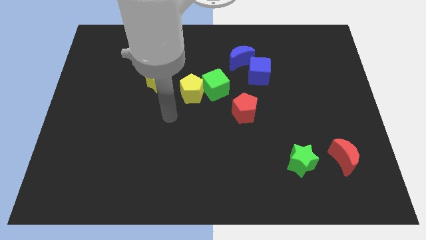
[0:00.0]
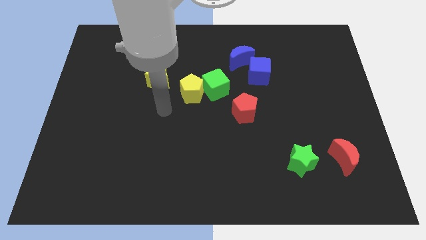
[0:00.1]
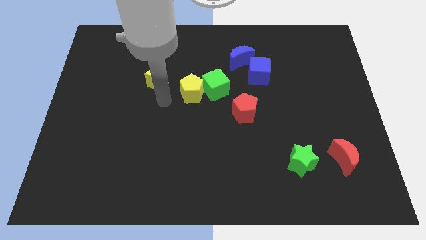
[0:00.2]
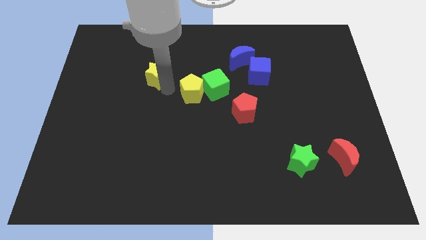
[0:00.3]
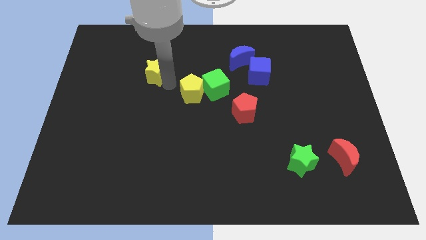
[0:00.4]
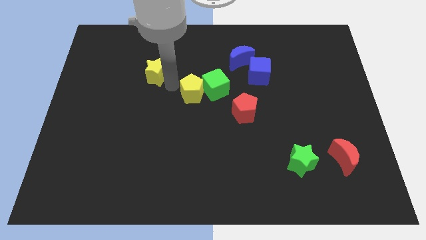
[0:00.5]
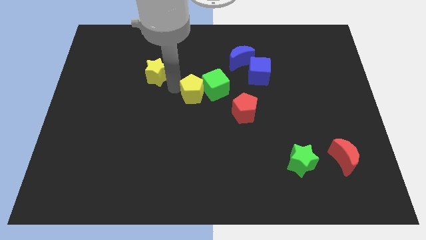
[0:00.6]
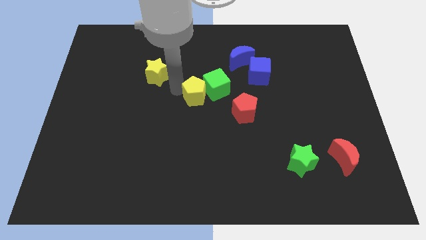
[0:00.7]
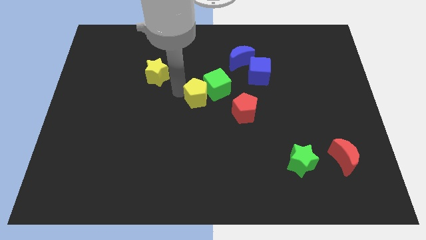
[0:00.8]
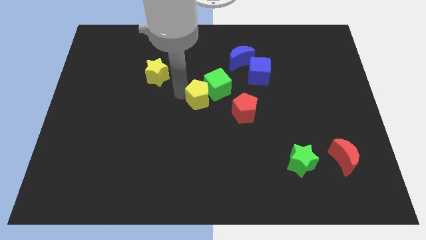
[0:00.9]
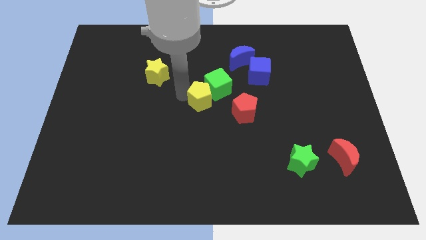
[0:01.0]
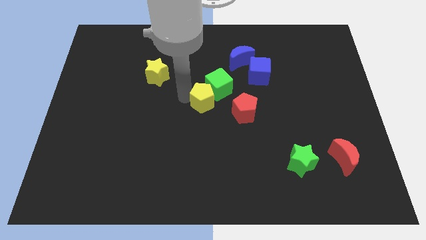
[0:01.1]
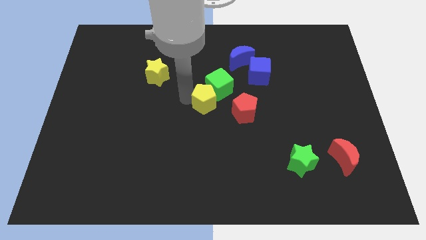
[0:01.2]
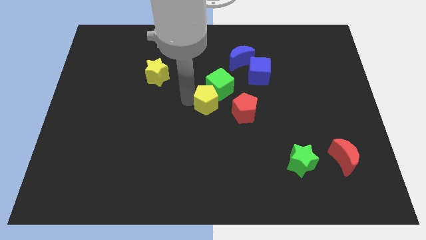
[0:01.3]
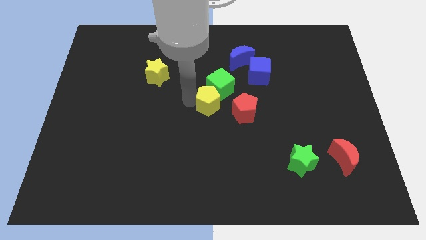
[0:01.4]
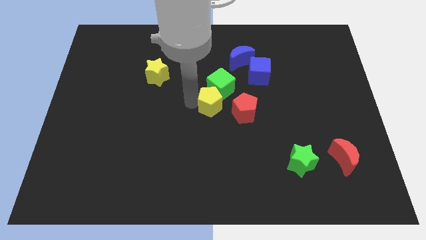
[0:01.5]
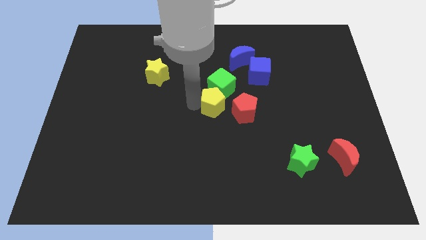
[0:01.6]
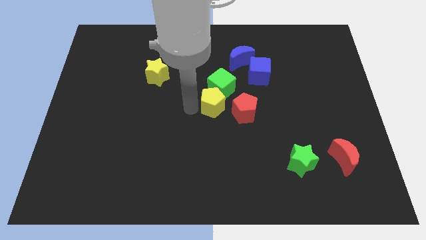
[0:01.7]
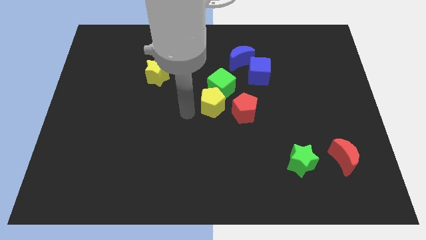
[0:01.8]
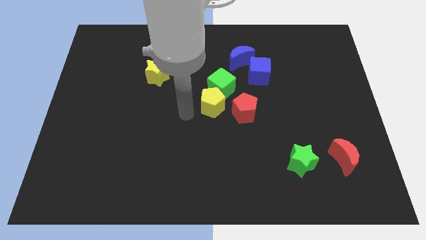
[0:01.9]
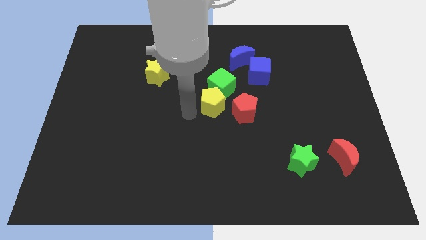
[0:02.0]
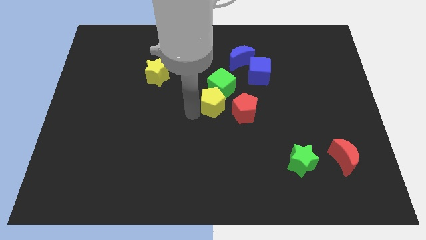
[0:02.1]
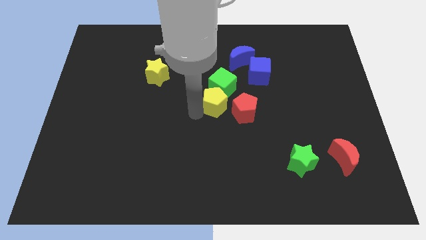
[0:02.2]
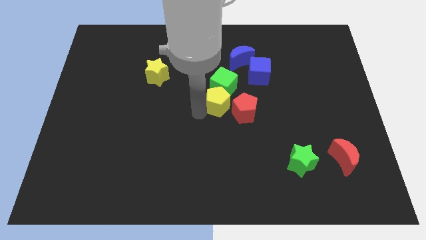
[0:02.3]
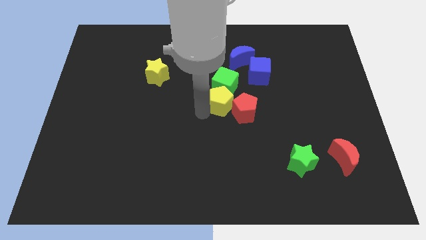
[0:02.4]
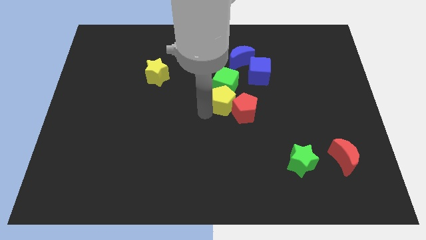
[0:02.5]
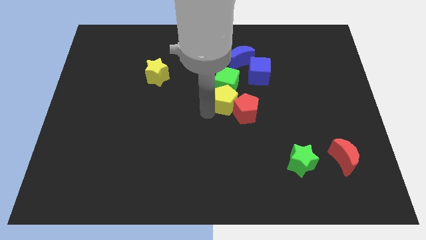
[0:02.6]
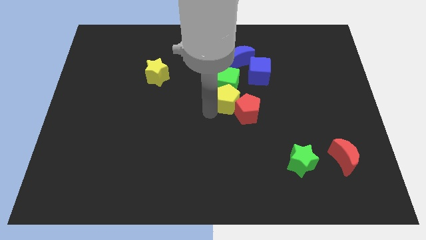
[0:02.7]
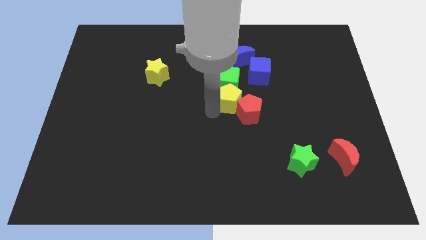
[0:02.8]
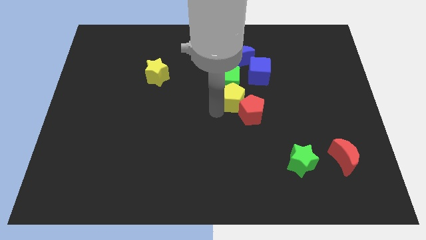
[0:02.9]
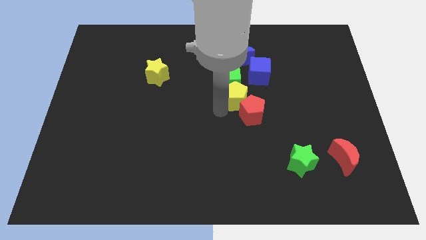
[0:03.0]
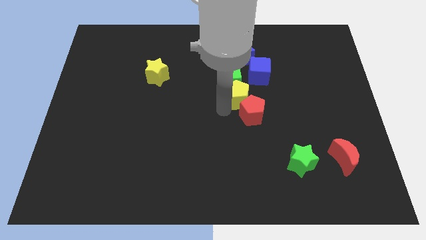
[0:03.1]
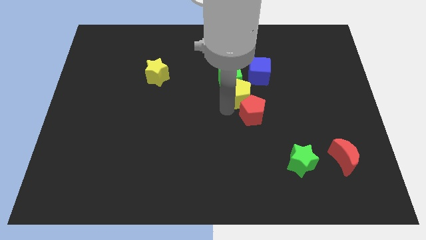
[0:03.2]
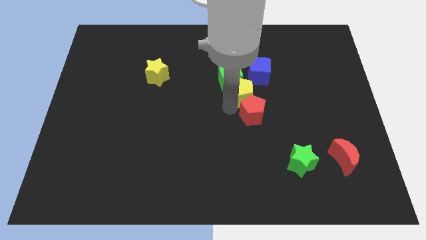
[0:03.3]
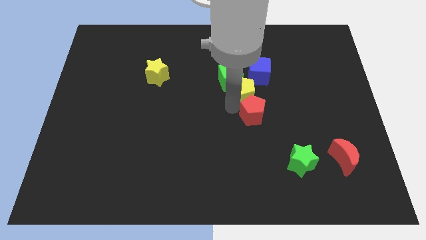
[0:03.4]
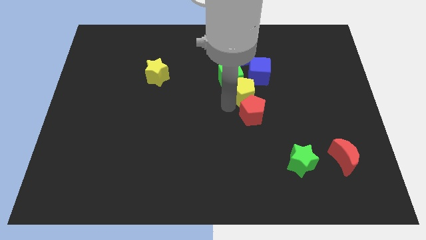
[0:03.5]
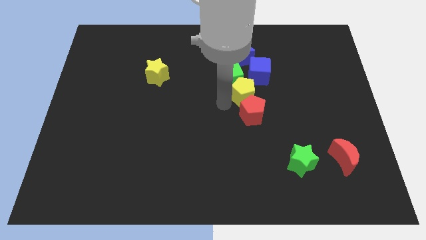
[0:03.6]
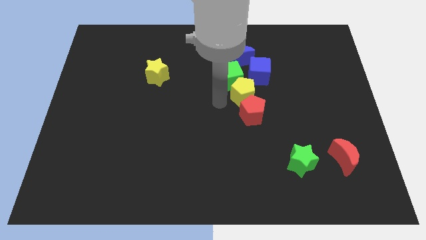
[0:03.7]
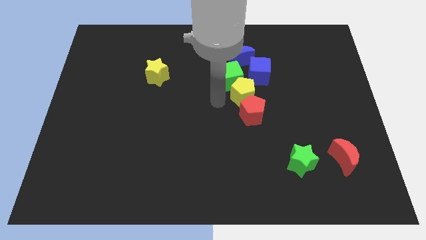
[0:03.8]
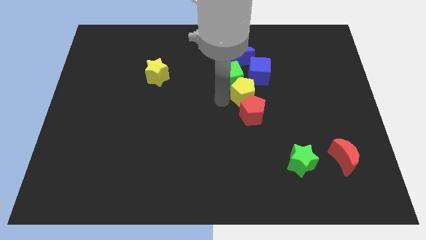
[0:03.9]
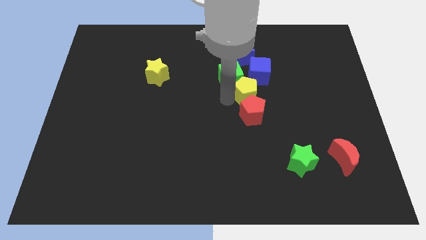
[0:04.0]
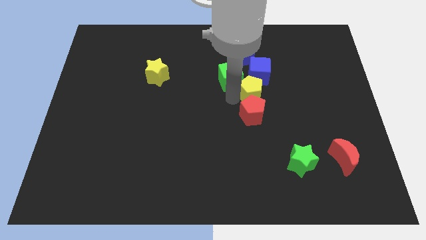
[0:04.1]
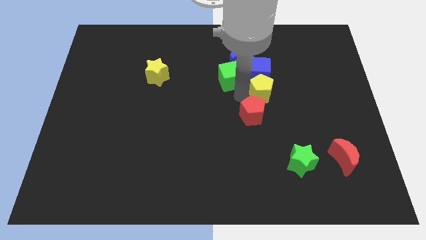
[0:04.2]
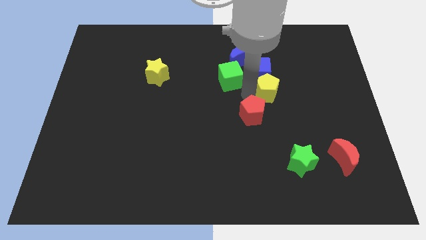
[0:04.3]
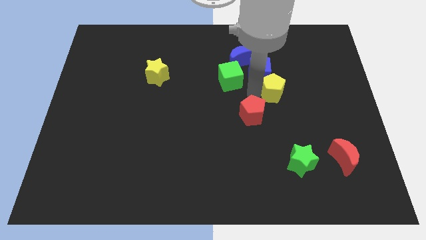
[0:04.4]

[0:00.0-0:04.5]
push the yellow pentagon to the right

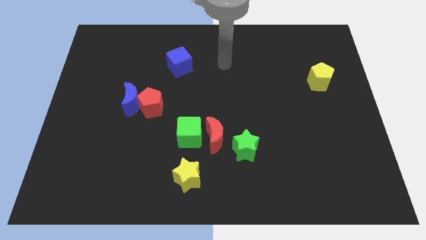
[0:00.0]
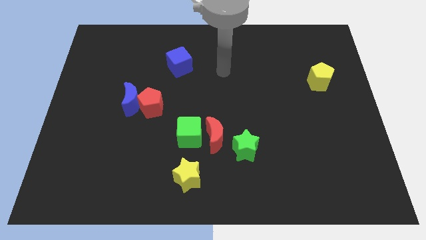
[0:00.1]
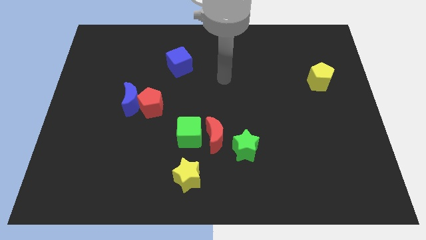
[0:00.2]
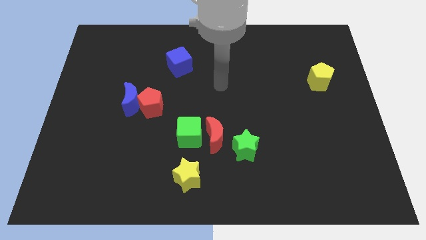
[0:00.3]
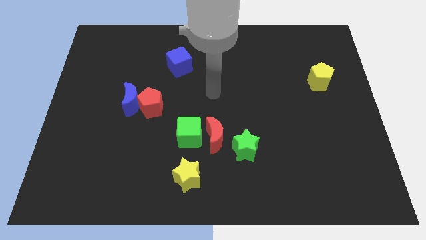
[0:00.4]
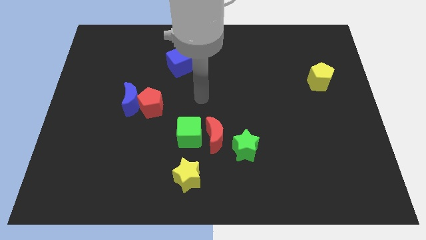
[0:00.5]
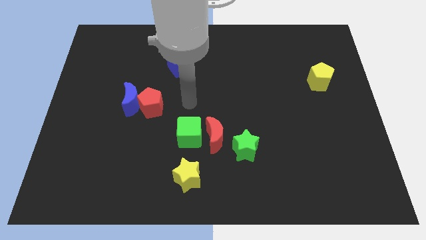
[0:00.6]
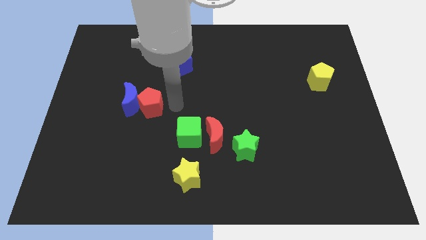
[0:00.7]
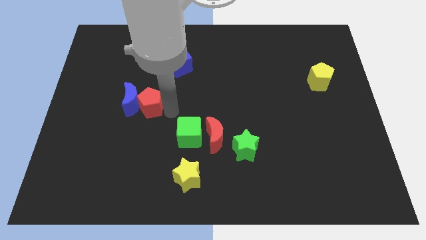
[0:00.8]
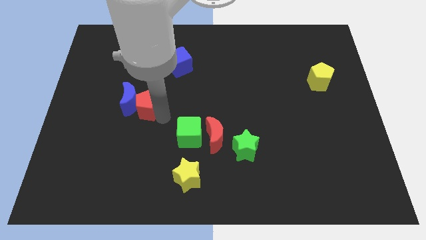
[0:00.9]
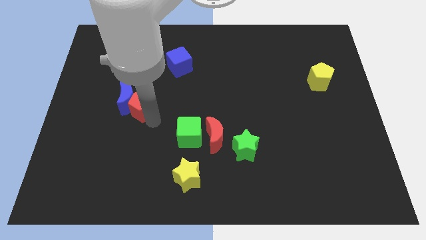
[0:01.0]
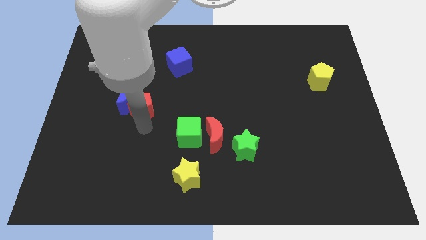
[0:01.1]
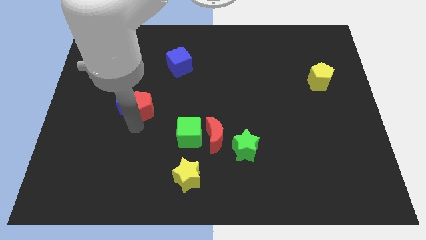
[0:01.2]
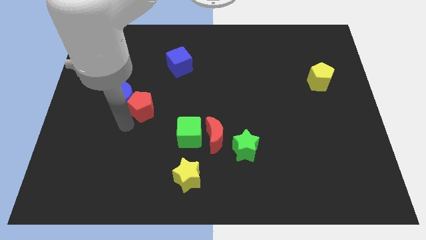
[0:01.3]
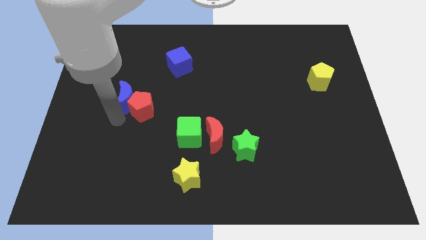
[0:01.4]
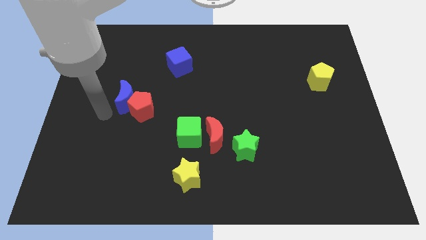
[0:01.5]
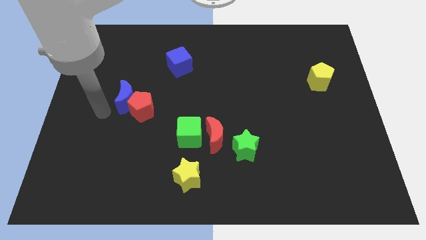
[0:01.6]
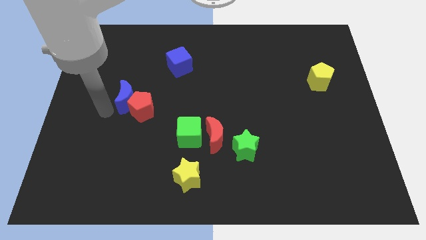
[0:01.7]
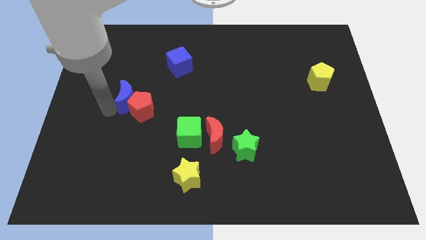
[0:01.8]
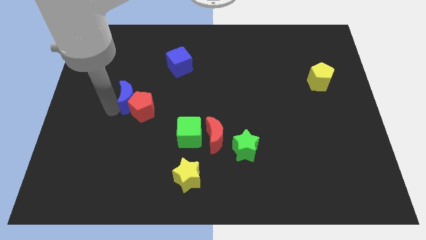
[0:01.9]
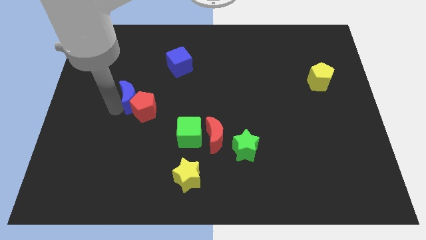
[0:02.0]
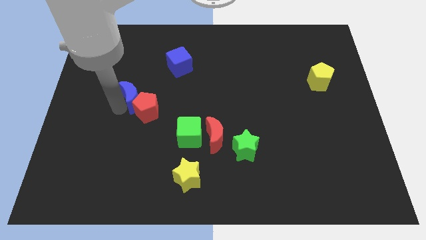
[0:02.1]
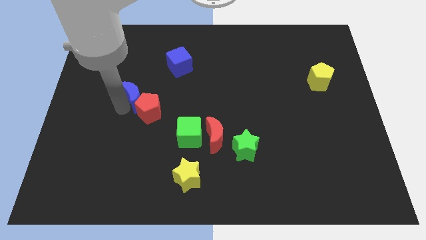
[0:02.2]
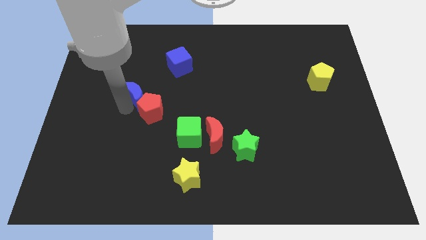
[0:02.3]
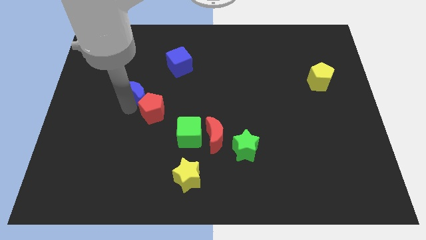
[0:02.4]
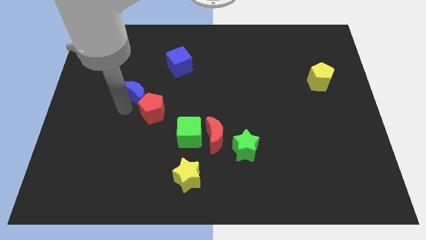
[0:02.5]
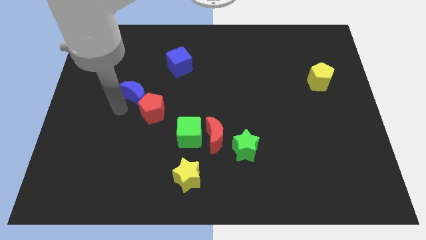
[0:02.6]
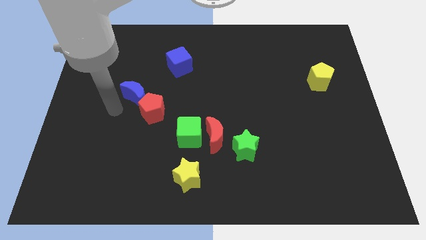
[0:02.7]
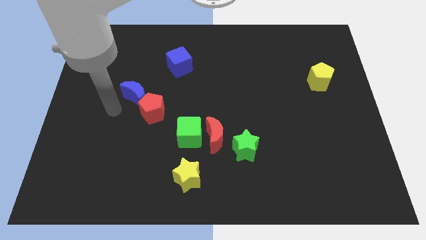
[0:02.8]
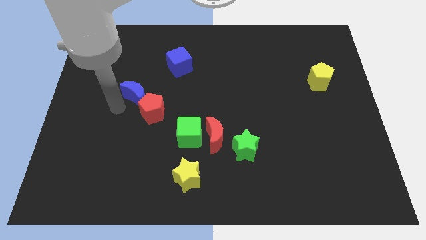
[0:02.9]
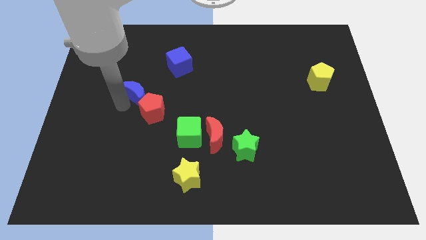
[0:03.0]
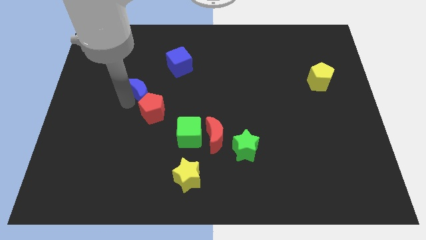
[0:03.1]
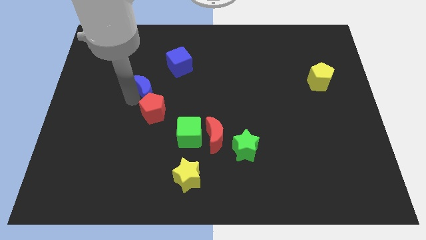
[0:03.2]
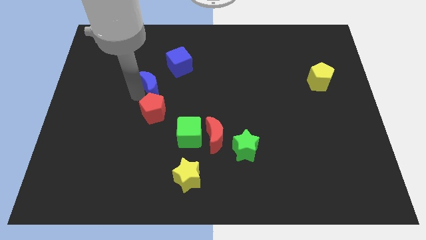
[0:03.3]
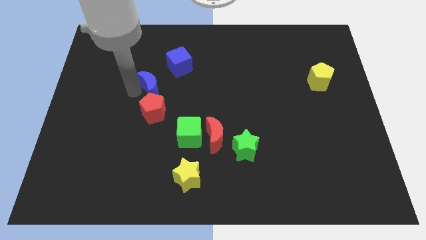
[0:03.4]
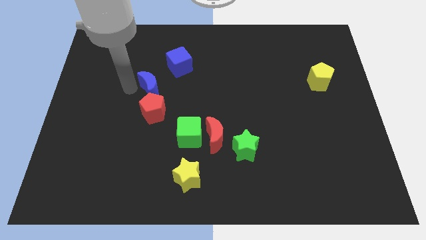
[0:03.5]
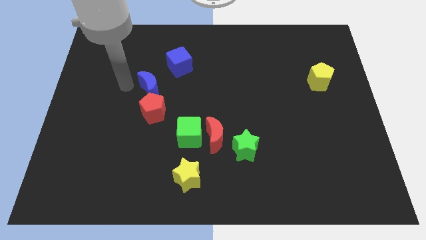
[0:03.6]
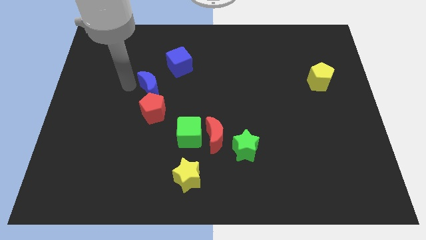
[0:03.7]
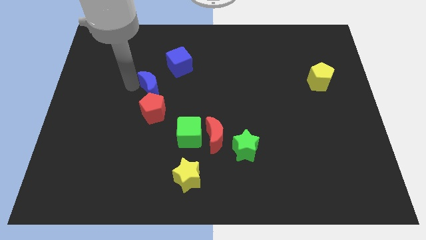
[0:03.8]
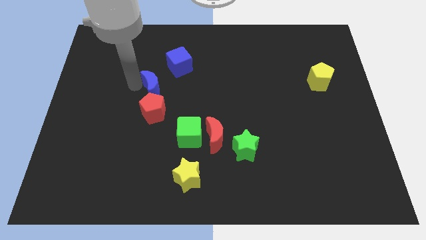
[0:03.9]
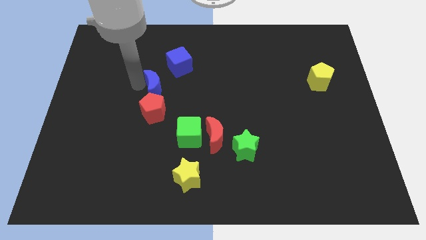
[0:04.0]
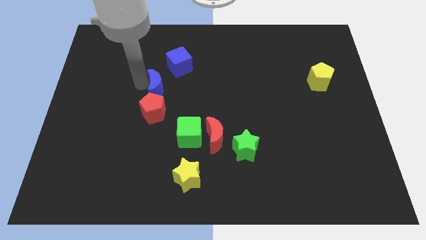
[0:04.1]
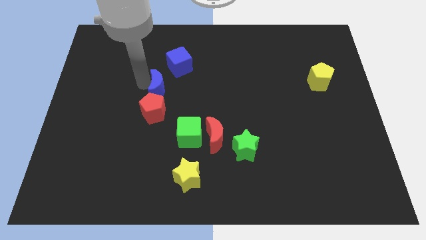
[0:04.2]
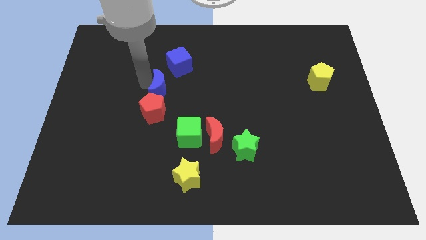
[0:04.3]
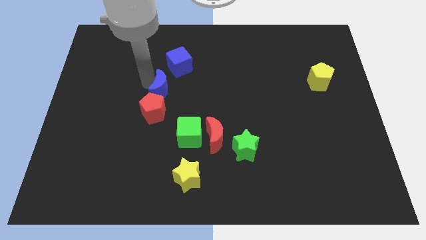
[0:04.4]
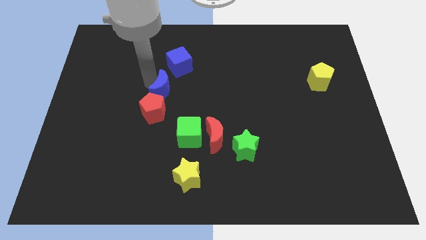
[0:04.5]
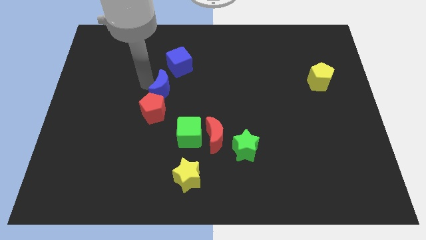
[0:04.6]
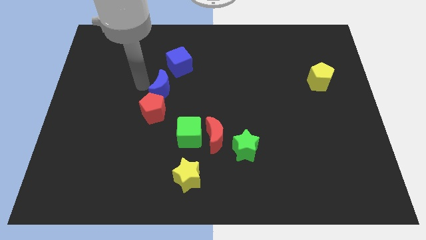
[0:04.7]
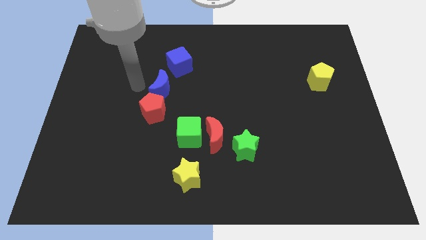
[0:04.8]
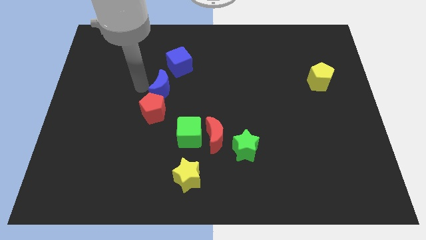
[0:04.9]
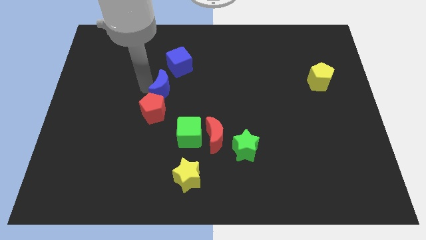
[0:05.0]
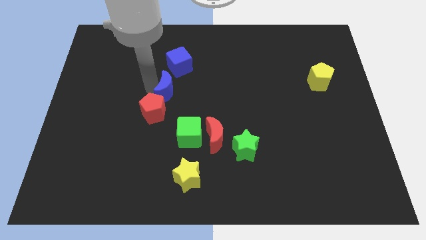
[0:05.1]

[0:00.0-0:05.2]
push the blue moon to the right somewhat
